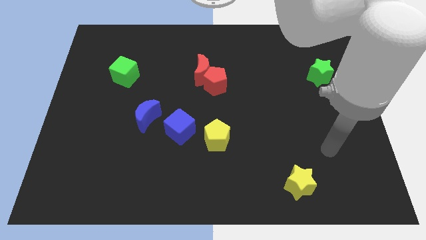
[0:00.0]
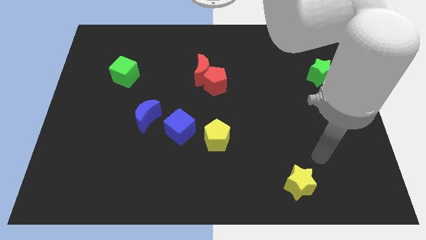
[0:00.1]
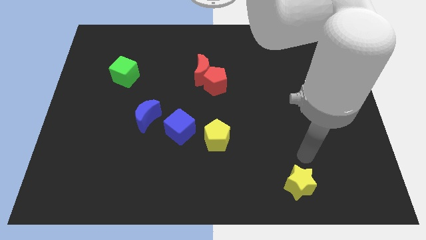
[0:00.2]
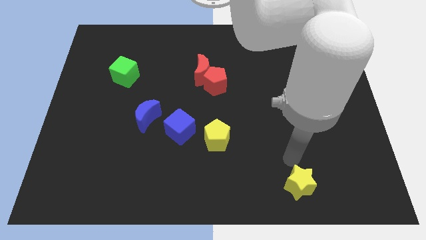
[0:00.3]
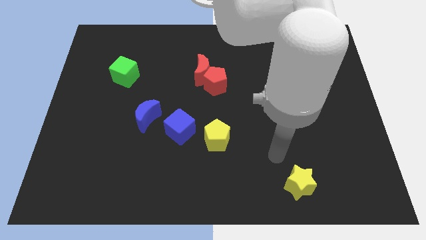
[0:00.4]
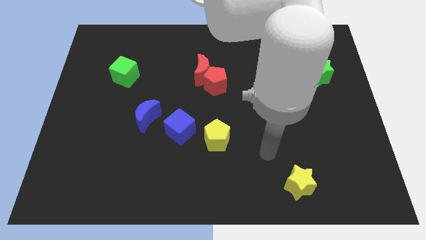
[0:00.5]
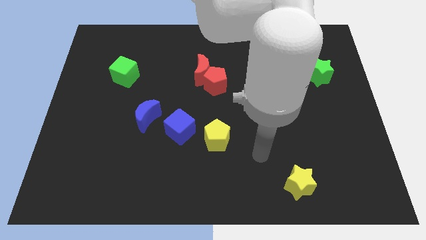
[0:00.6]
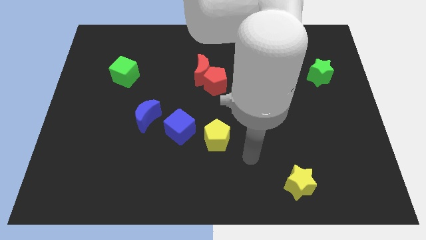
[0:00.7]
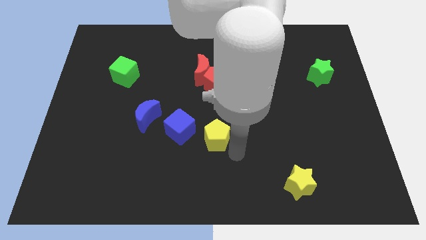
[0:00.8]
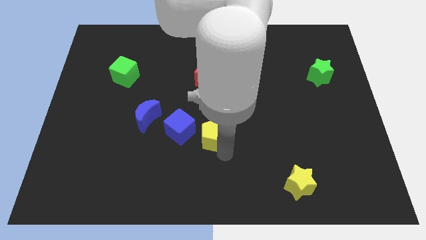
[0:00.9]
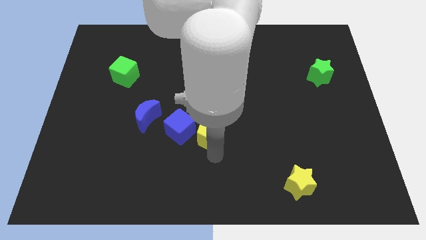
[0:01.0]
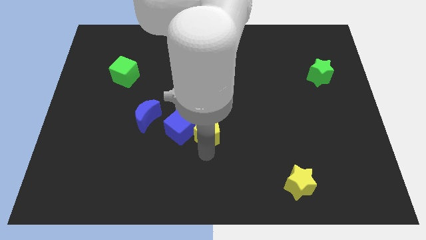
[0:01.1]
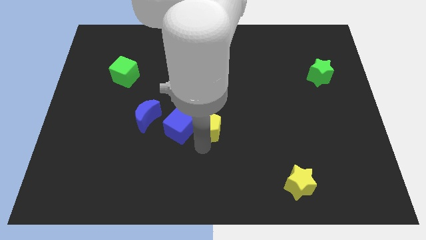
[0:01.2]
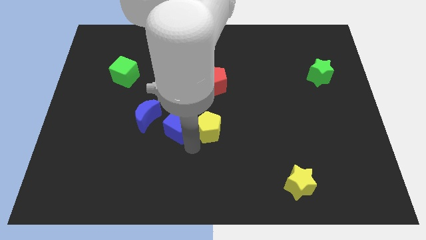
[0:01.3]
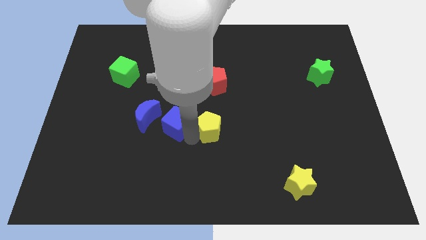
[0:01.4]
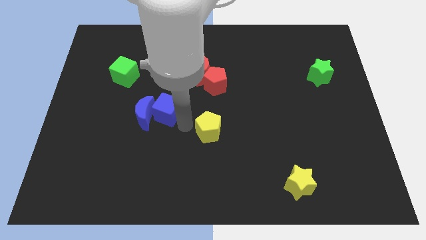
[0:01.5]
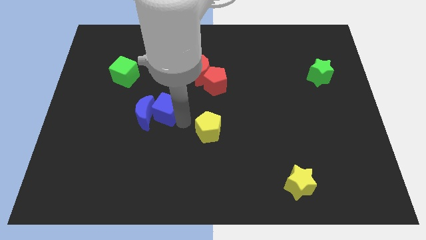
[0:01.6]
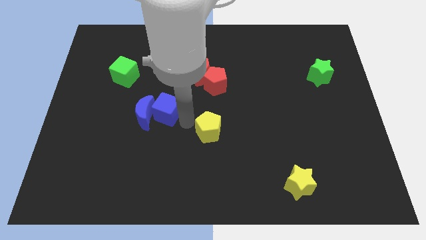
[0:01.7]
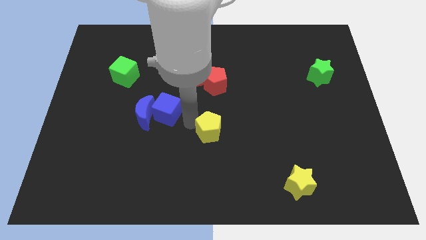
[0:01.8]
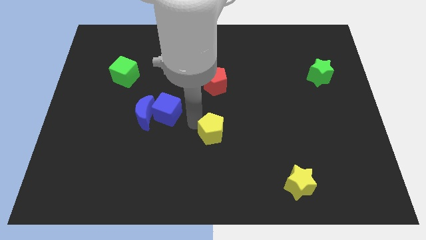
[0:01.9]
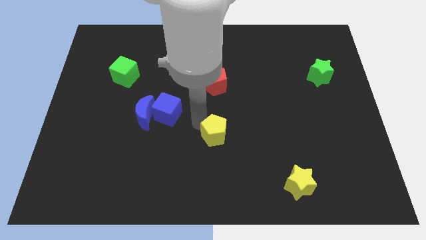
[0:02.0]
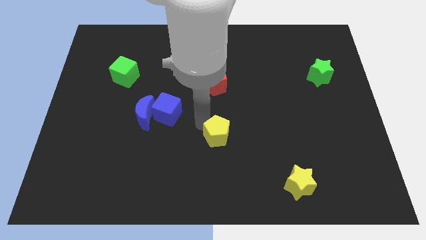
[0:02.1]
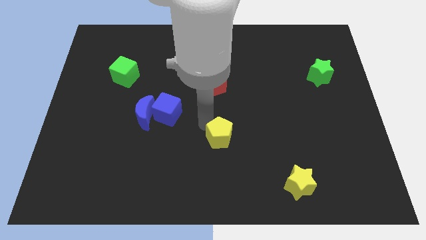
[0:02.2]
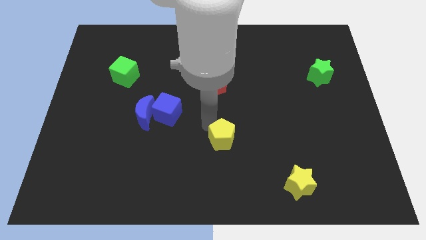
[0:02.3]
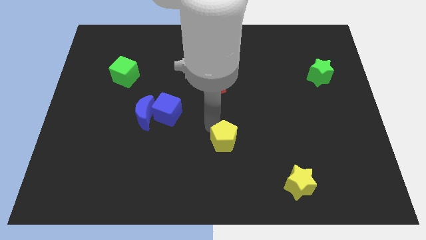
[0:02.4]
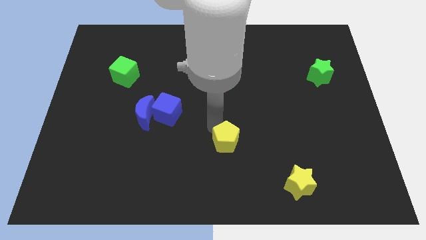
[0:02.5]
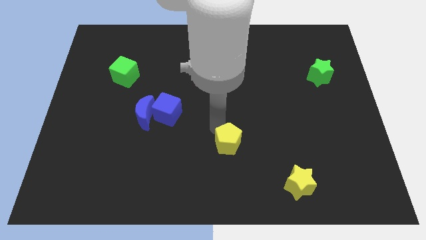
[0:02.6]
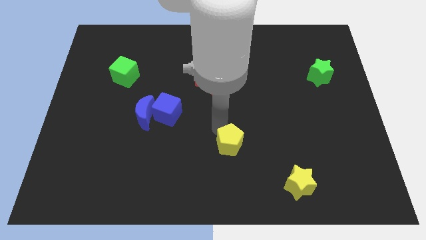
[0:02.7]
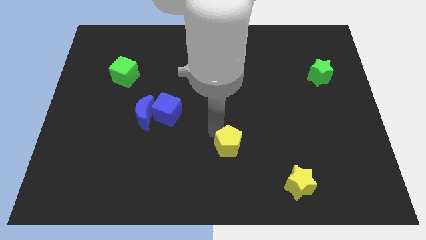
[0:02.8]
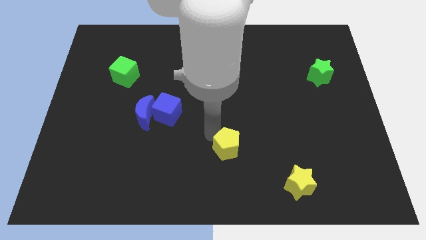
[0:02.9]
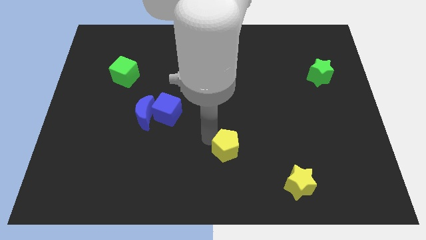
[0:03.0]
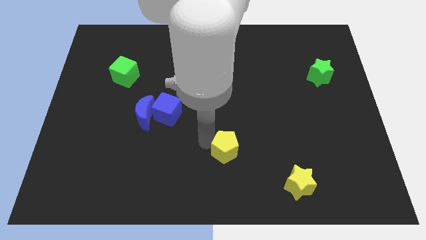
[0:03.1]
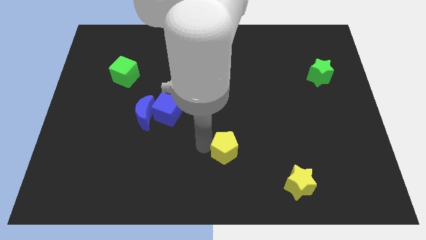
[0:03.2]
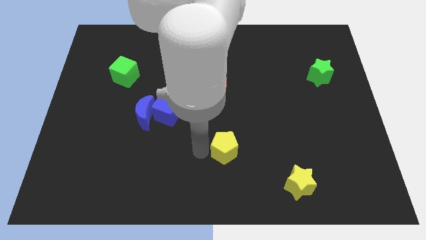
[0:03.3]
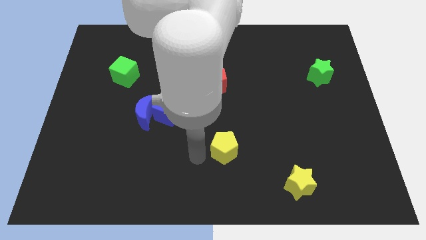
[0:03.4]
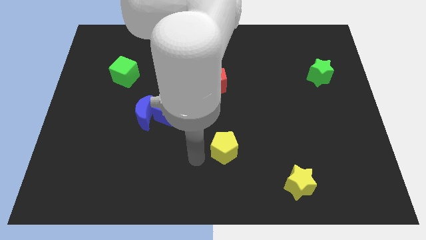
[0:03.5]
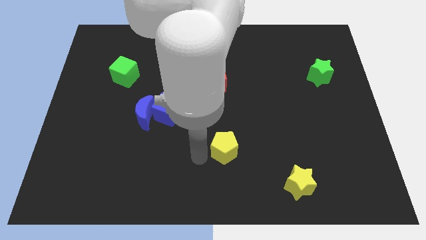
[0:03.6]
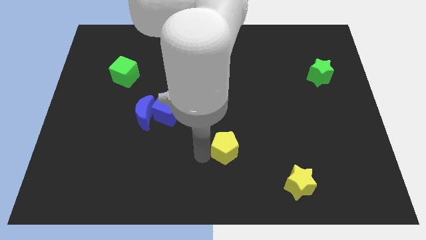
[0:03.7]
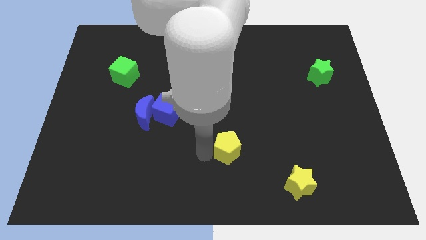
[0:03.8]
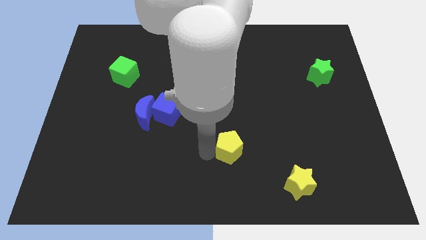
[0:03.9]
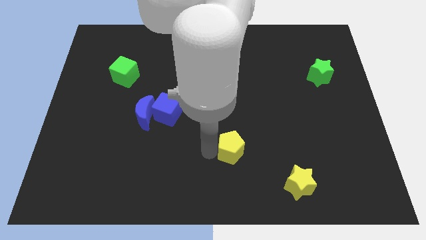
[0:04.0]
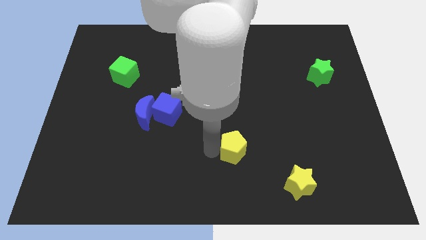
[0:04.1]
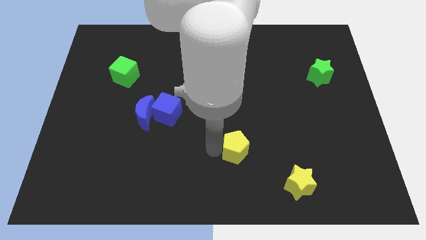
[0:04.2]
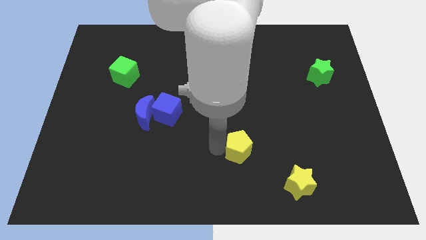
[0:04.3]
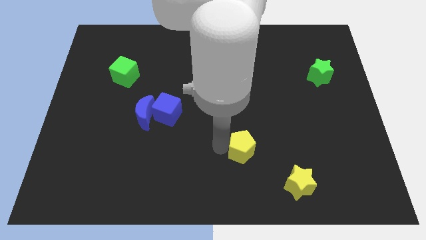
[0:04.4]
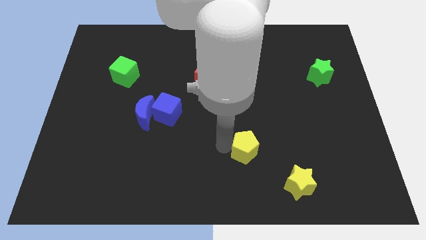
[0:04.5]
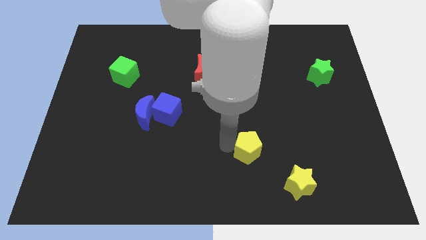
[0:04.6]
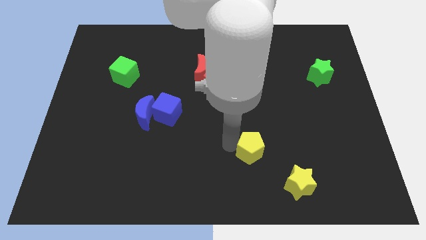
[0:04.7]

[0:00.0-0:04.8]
push the yellow pentagon to the right a little bit

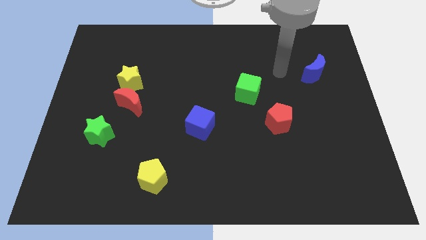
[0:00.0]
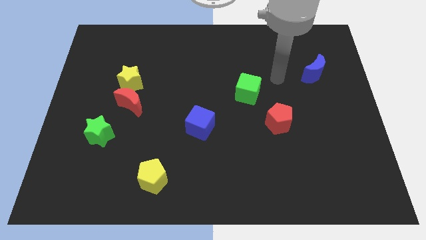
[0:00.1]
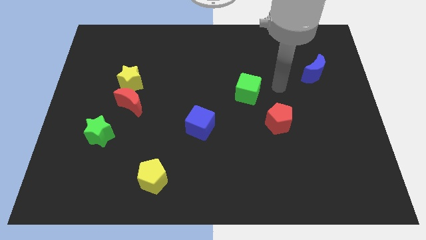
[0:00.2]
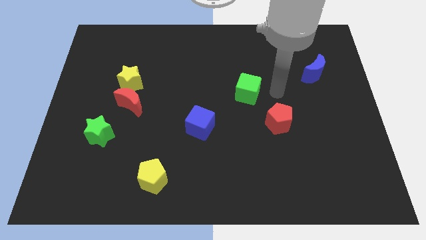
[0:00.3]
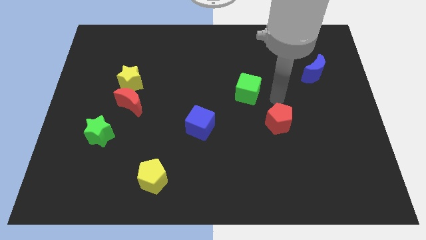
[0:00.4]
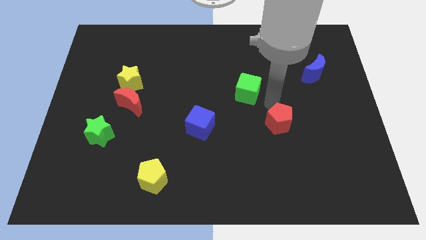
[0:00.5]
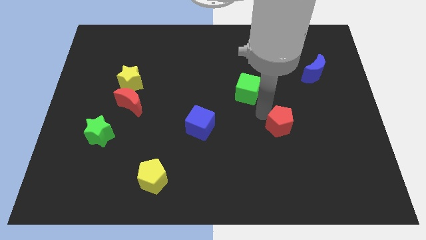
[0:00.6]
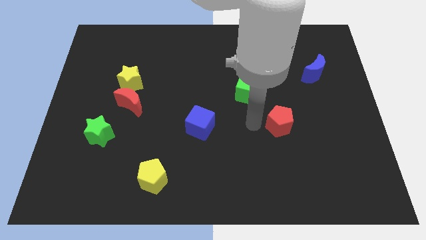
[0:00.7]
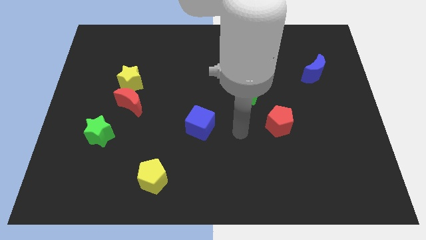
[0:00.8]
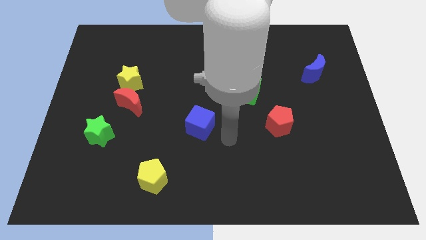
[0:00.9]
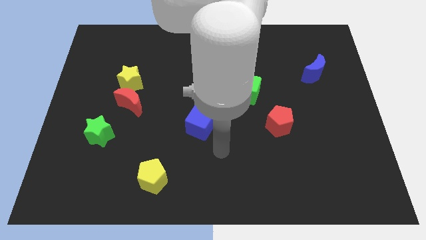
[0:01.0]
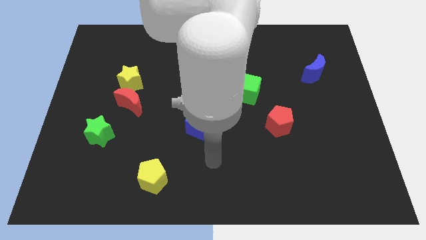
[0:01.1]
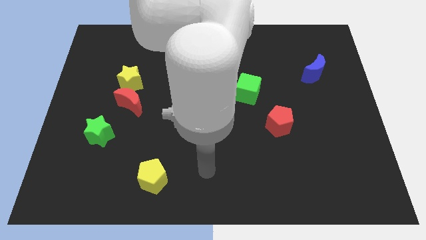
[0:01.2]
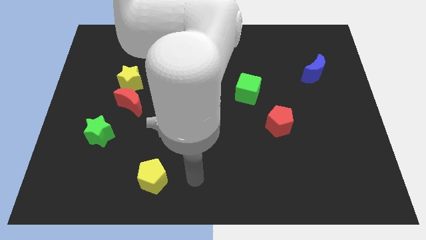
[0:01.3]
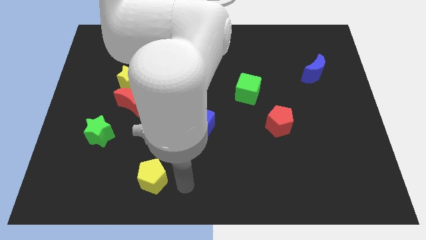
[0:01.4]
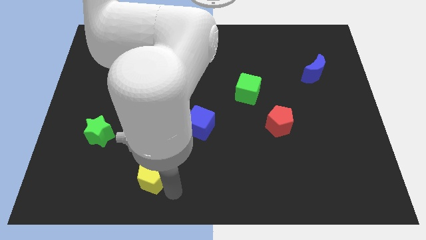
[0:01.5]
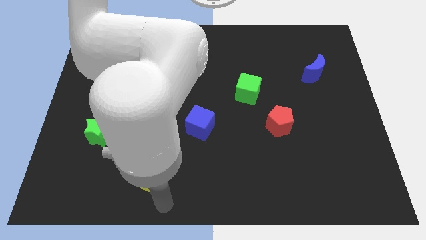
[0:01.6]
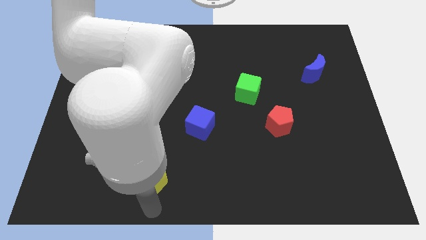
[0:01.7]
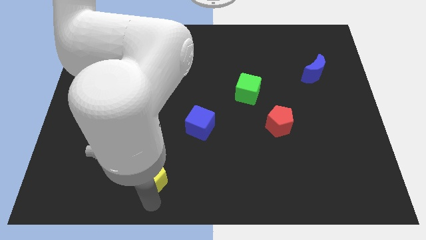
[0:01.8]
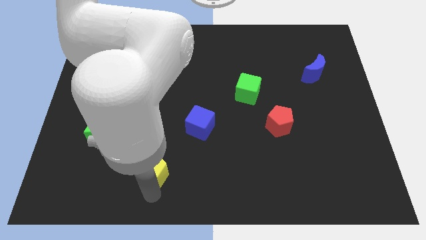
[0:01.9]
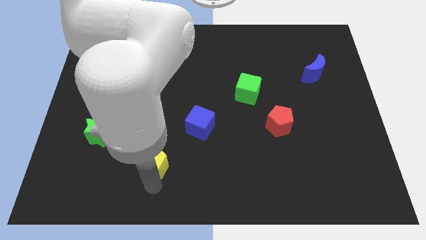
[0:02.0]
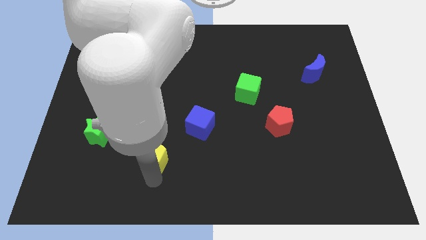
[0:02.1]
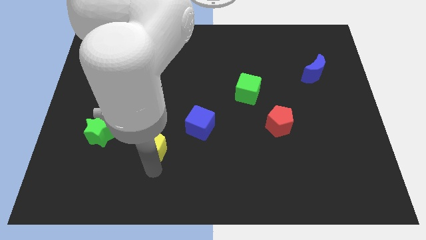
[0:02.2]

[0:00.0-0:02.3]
move the yellow pentagon a bit upwards

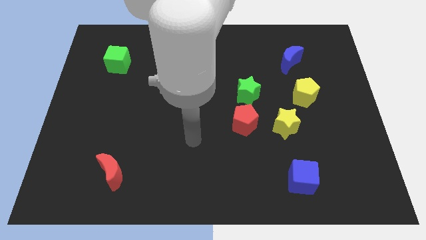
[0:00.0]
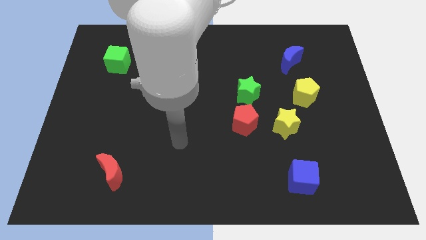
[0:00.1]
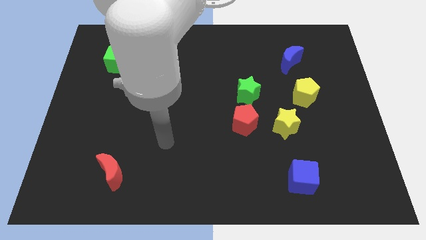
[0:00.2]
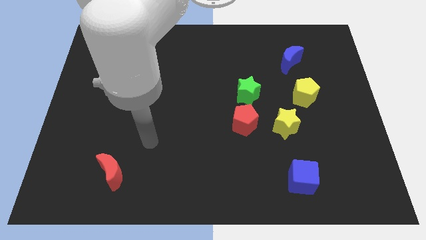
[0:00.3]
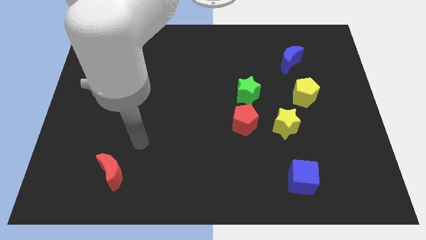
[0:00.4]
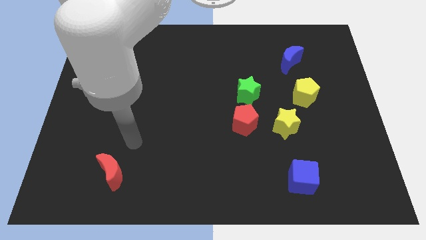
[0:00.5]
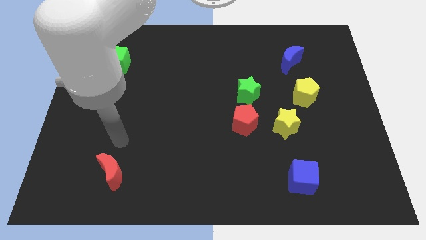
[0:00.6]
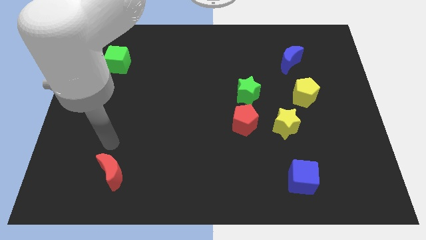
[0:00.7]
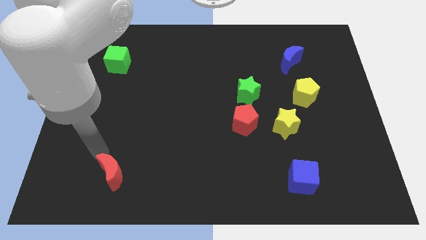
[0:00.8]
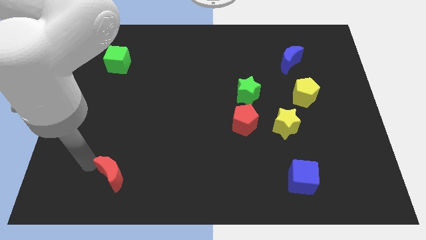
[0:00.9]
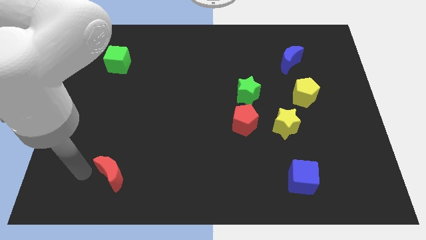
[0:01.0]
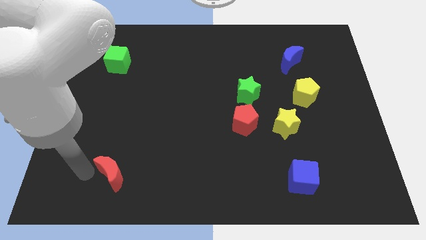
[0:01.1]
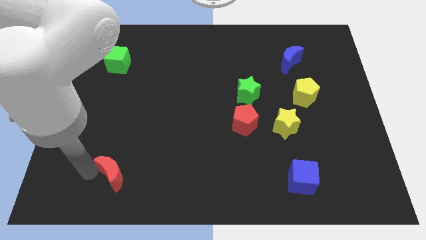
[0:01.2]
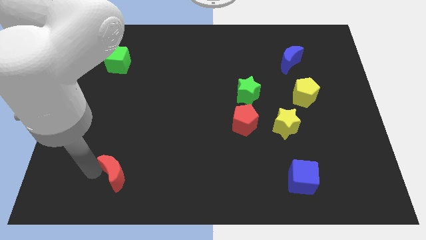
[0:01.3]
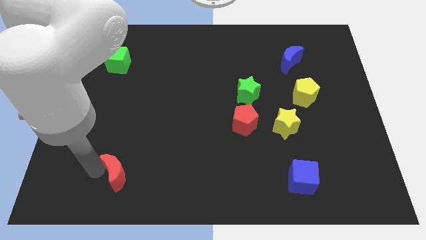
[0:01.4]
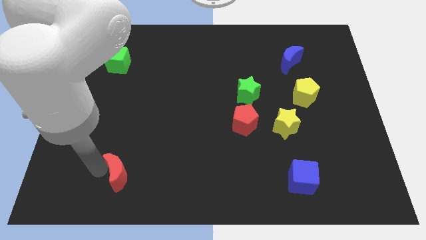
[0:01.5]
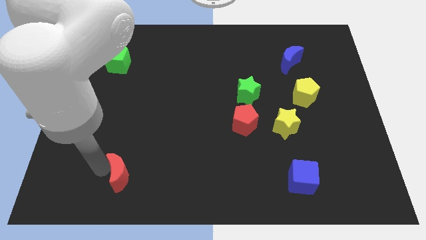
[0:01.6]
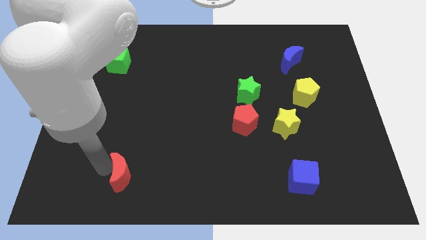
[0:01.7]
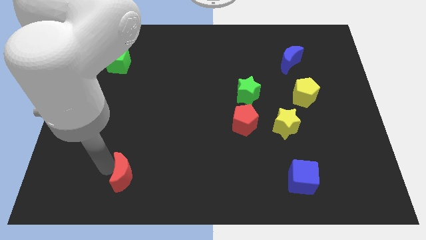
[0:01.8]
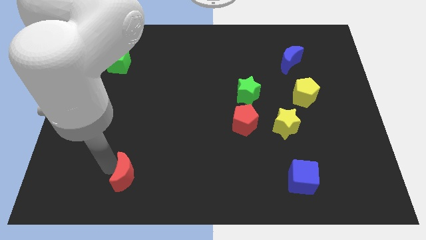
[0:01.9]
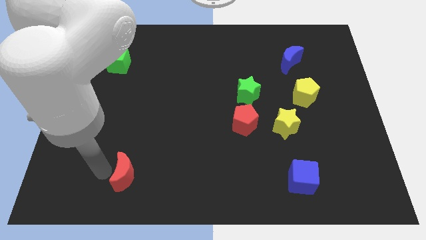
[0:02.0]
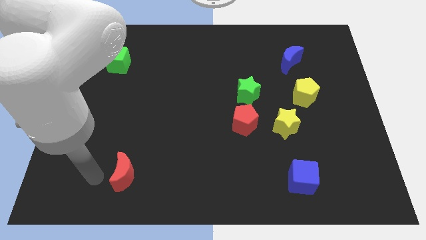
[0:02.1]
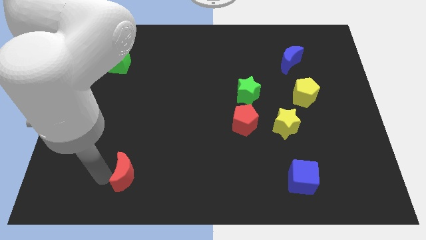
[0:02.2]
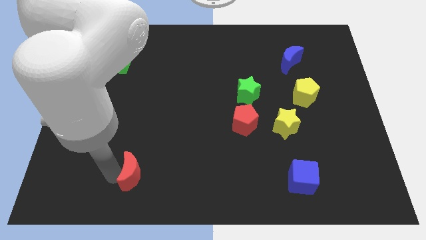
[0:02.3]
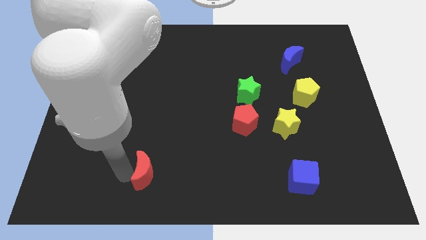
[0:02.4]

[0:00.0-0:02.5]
push the red moon a little bit right
